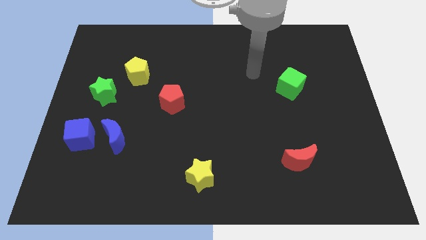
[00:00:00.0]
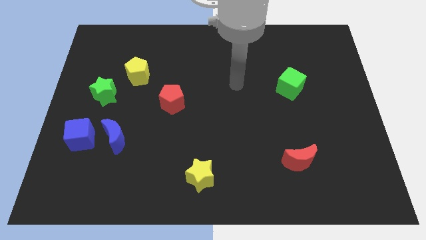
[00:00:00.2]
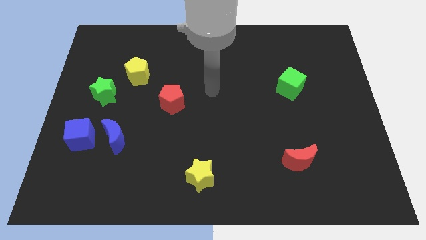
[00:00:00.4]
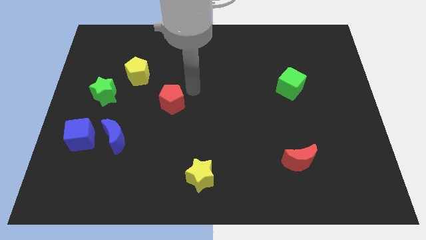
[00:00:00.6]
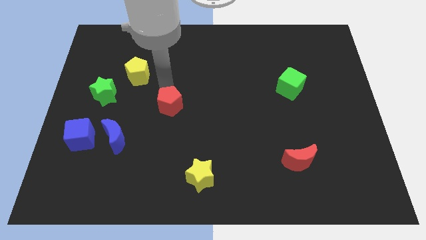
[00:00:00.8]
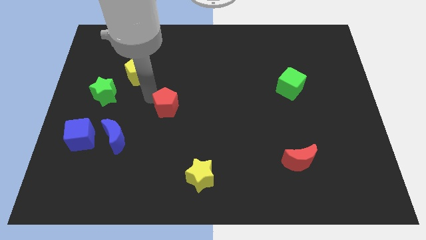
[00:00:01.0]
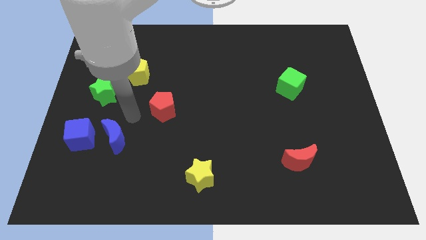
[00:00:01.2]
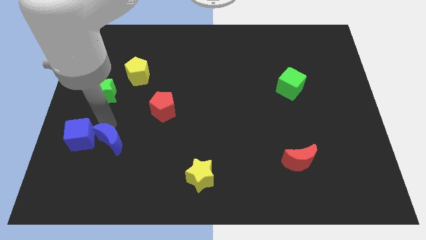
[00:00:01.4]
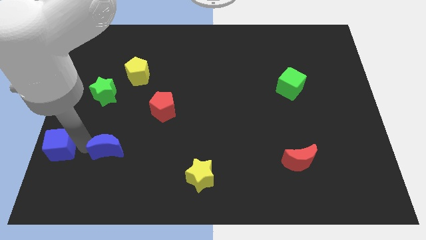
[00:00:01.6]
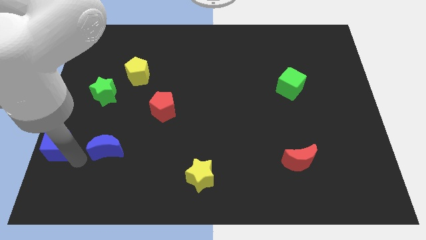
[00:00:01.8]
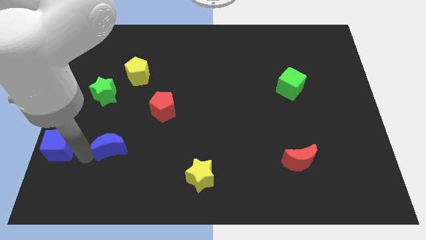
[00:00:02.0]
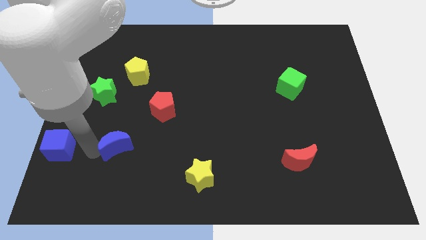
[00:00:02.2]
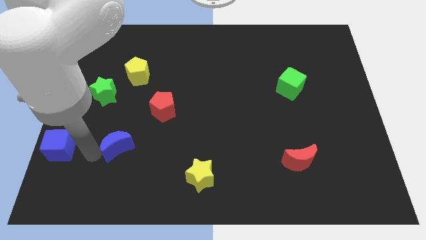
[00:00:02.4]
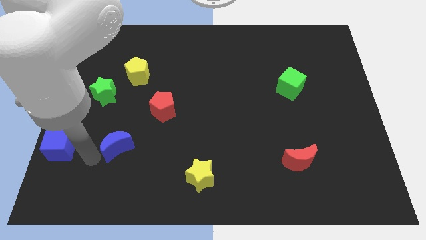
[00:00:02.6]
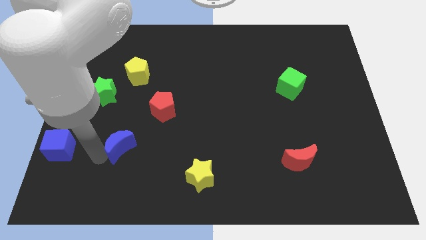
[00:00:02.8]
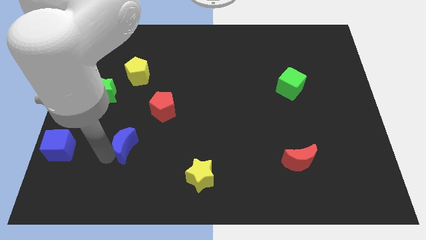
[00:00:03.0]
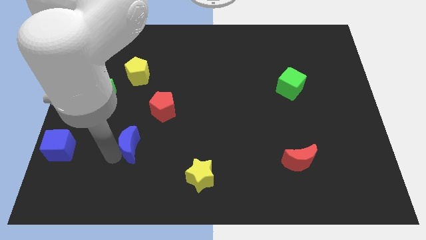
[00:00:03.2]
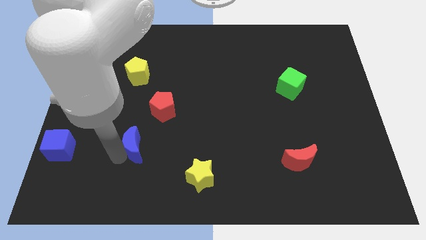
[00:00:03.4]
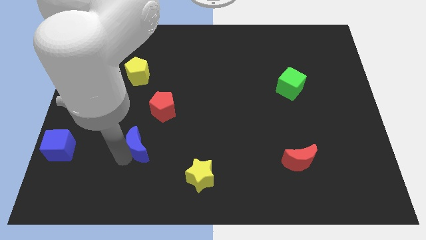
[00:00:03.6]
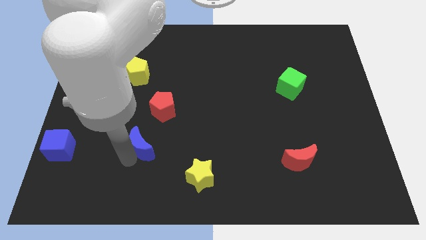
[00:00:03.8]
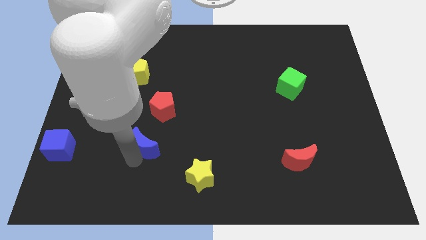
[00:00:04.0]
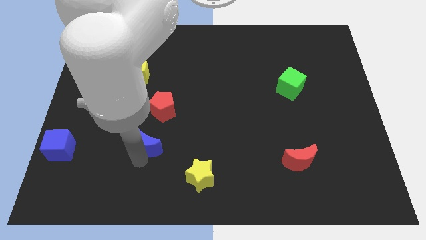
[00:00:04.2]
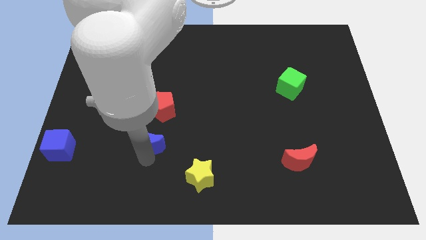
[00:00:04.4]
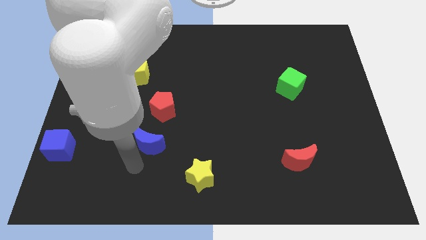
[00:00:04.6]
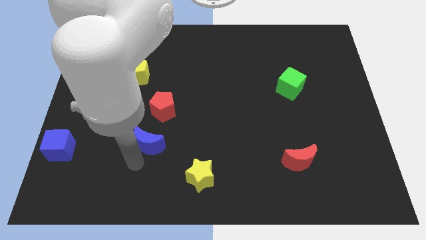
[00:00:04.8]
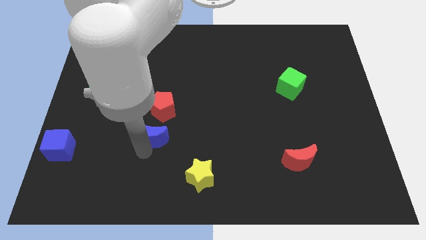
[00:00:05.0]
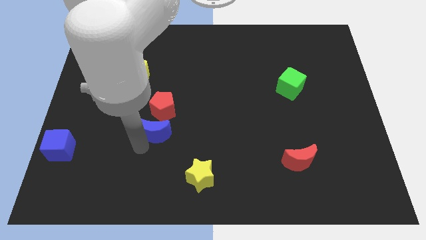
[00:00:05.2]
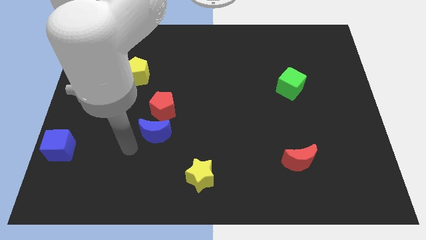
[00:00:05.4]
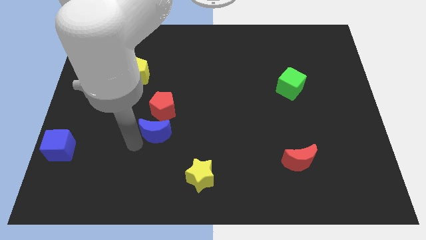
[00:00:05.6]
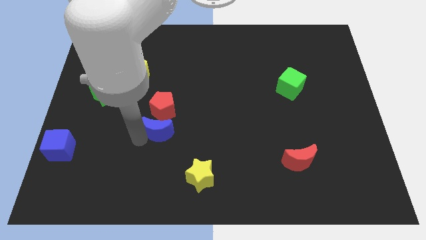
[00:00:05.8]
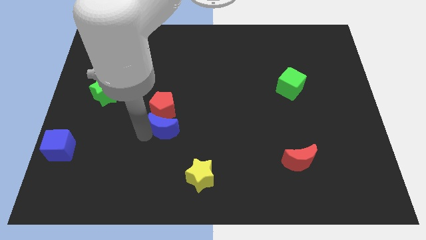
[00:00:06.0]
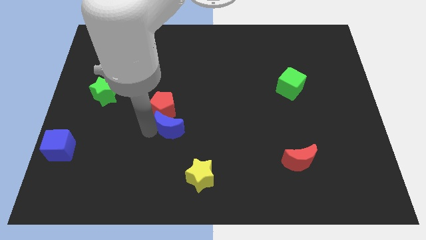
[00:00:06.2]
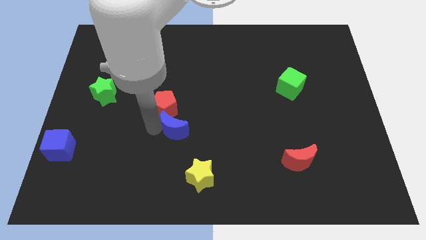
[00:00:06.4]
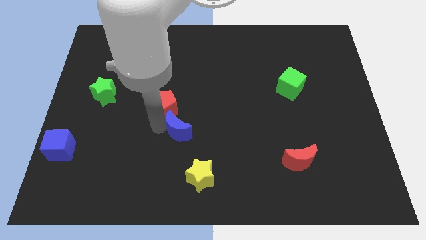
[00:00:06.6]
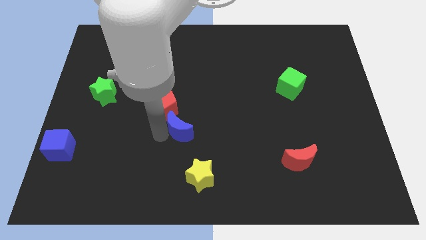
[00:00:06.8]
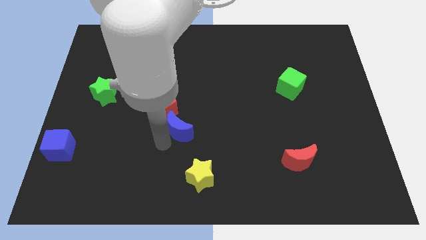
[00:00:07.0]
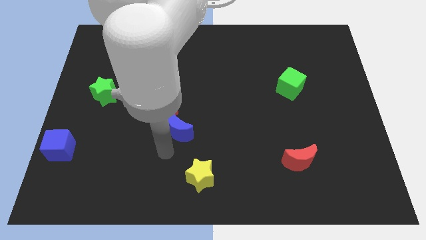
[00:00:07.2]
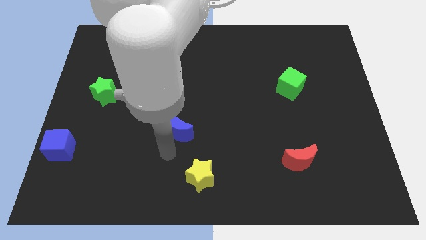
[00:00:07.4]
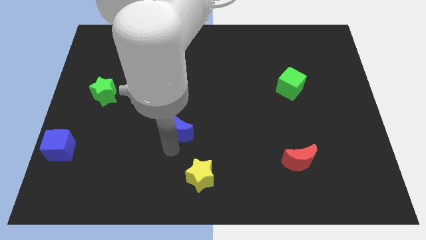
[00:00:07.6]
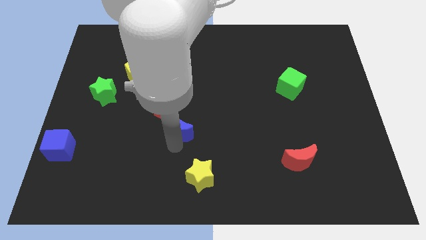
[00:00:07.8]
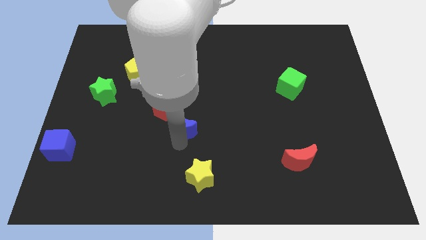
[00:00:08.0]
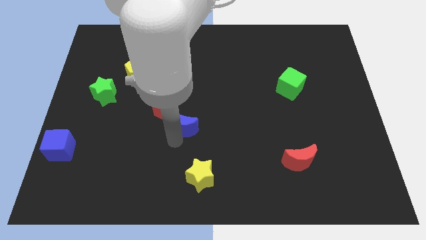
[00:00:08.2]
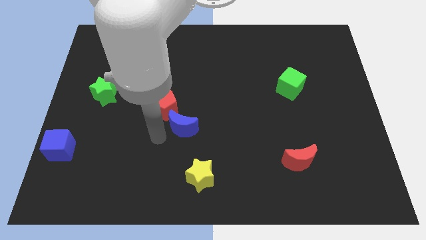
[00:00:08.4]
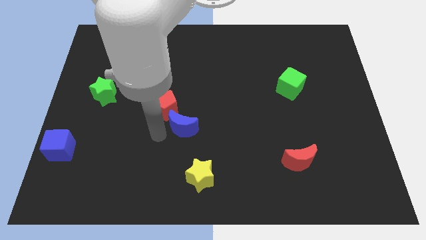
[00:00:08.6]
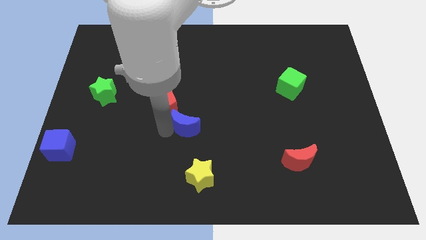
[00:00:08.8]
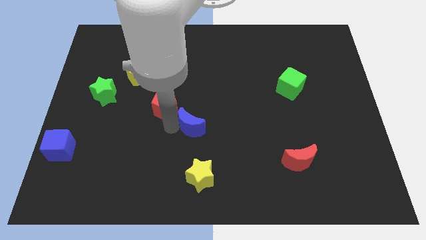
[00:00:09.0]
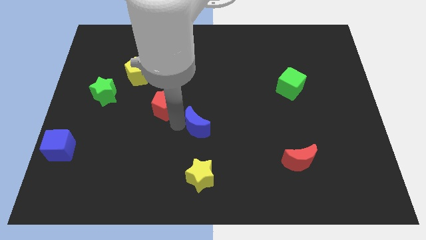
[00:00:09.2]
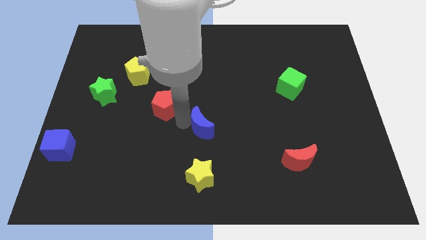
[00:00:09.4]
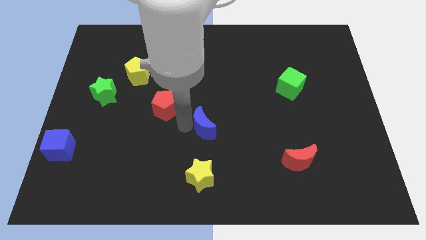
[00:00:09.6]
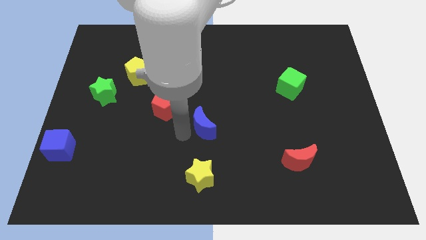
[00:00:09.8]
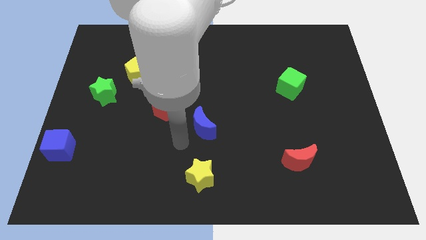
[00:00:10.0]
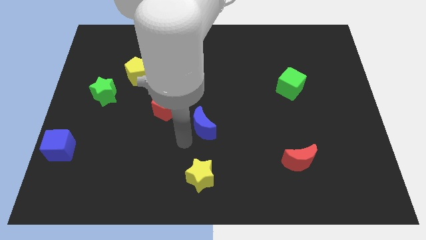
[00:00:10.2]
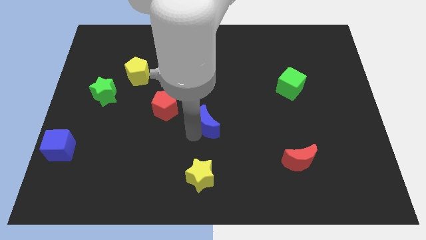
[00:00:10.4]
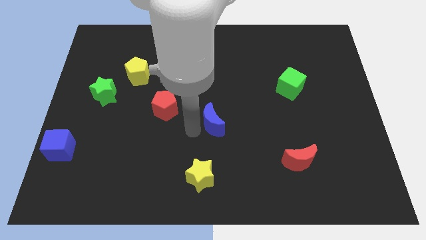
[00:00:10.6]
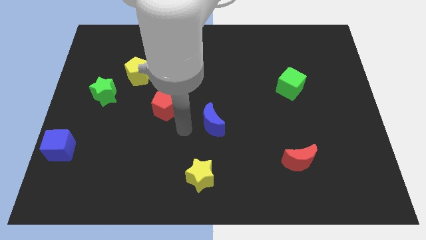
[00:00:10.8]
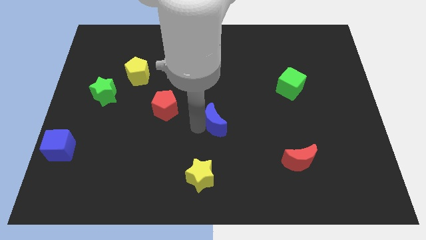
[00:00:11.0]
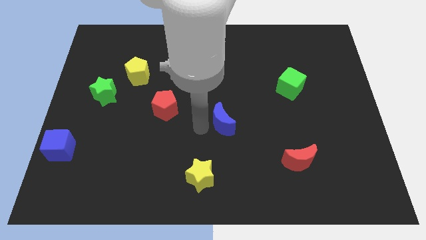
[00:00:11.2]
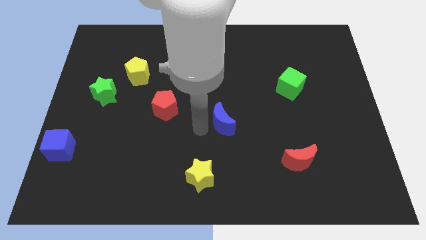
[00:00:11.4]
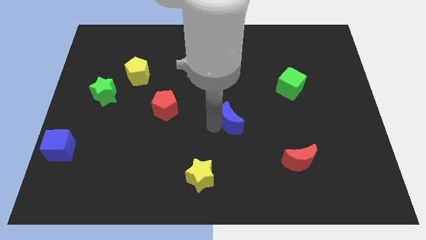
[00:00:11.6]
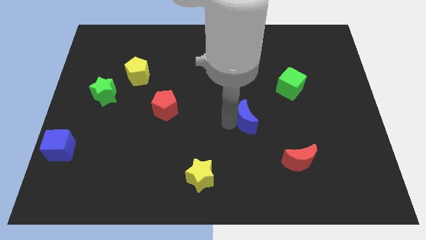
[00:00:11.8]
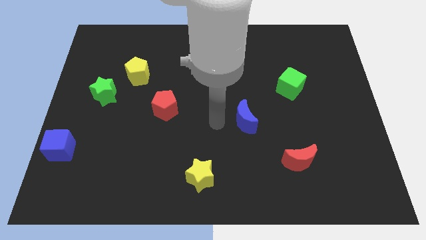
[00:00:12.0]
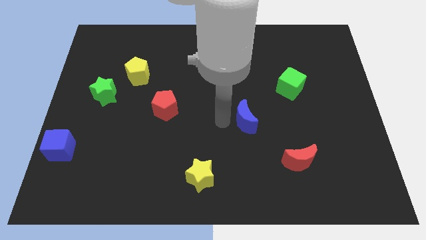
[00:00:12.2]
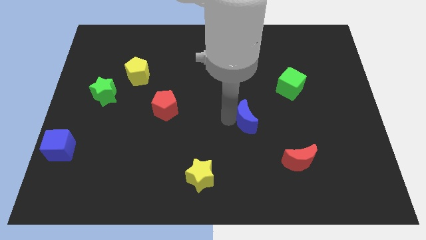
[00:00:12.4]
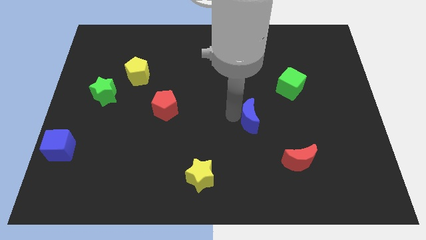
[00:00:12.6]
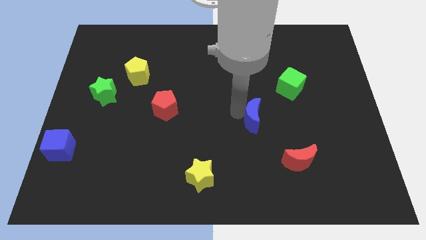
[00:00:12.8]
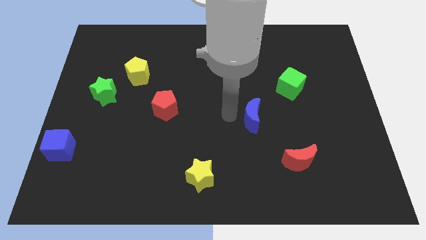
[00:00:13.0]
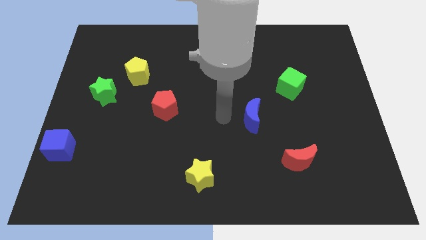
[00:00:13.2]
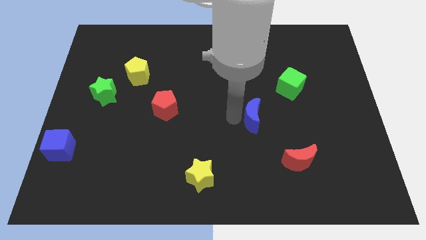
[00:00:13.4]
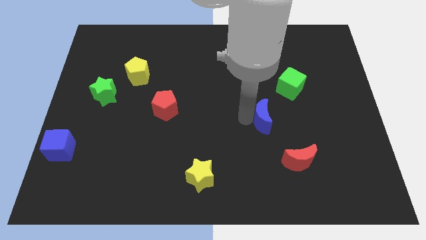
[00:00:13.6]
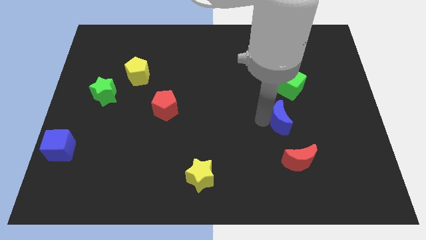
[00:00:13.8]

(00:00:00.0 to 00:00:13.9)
slide the blue moon to the bottom of the green cube

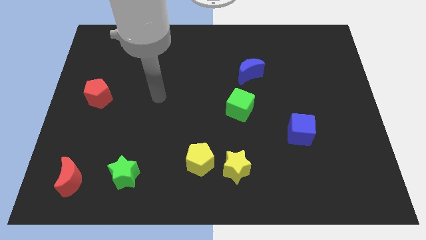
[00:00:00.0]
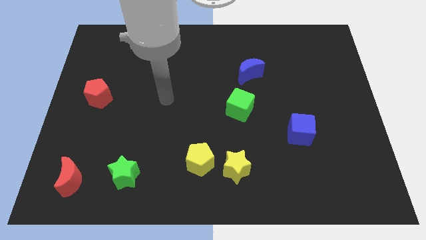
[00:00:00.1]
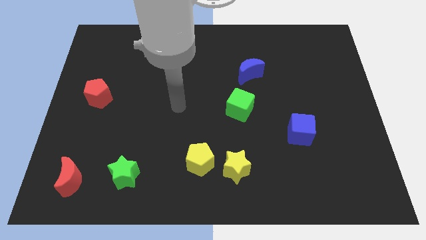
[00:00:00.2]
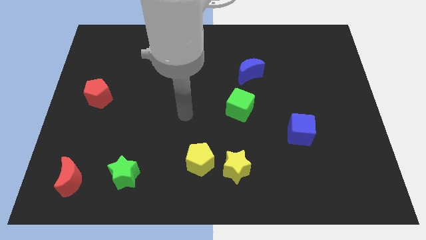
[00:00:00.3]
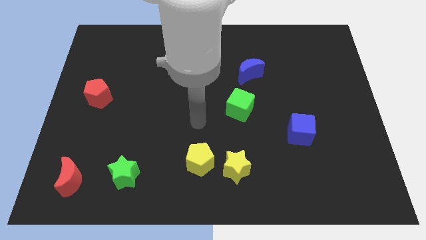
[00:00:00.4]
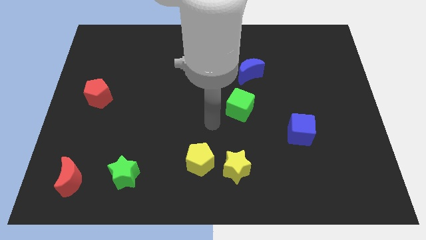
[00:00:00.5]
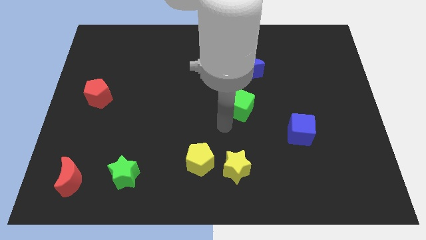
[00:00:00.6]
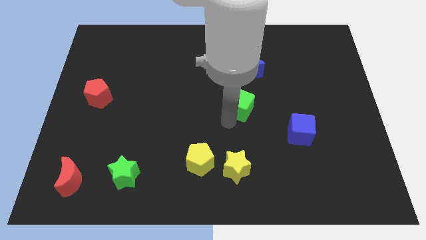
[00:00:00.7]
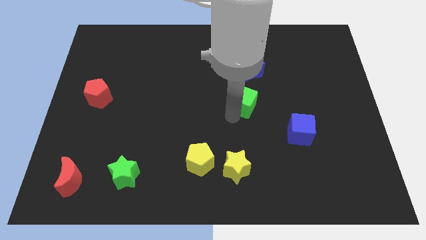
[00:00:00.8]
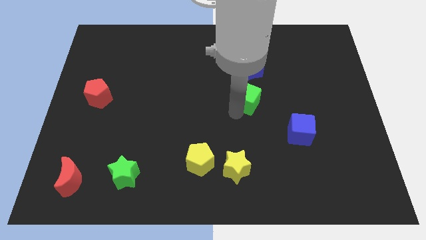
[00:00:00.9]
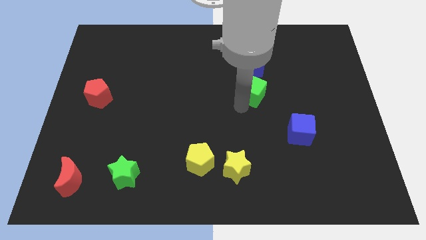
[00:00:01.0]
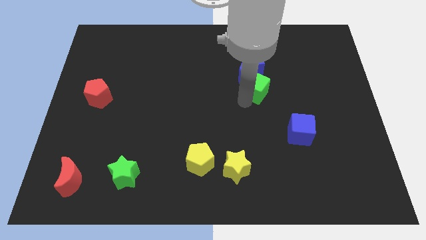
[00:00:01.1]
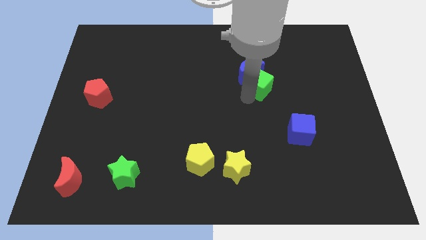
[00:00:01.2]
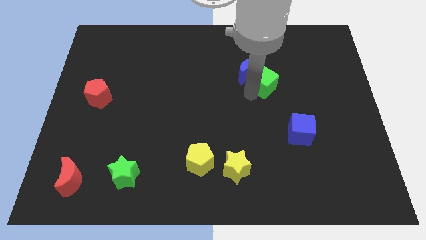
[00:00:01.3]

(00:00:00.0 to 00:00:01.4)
put the green cube just right of the blue moon

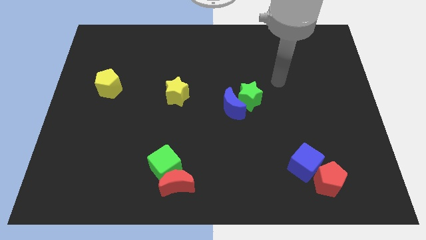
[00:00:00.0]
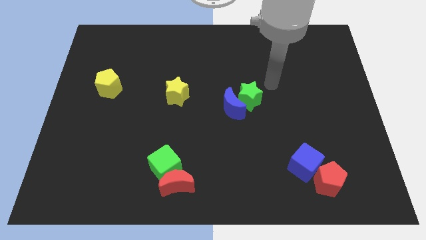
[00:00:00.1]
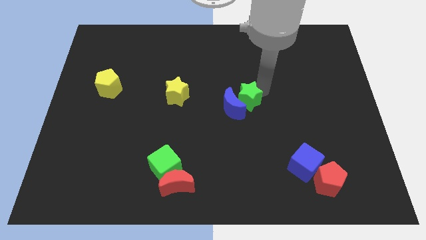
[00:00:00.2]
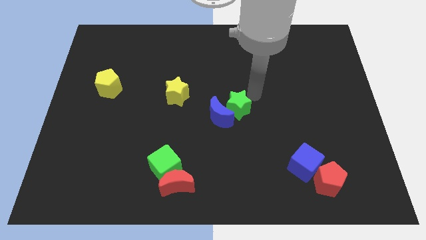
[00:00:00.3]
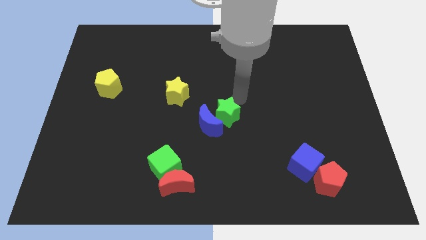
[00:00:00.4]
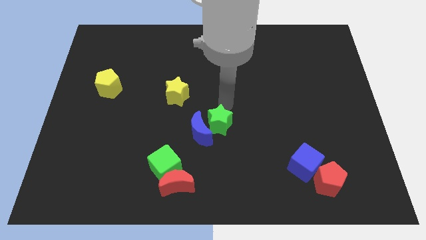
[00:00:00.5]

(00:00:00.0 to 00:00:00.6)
move the blue moon to the top right of the green cube
